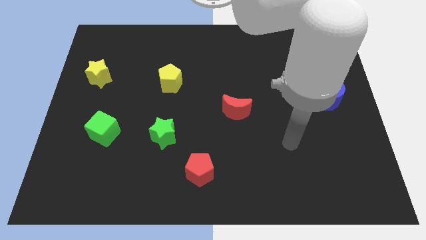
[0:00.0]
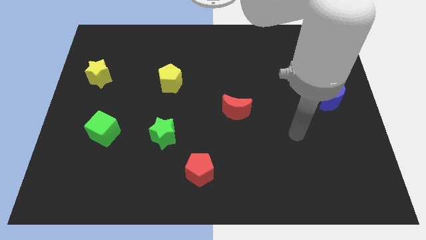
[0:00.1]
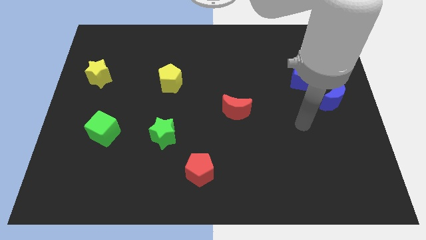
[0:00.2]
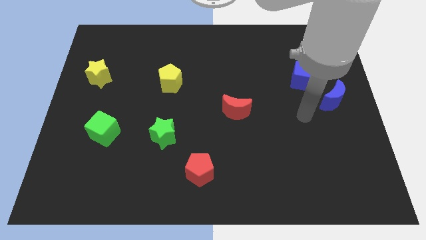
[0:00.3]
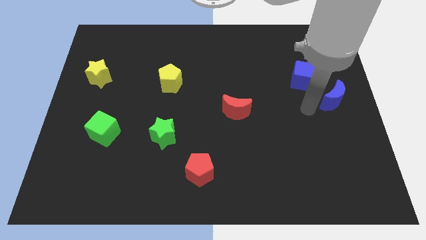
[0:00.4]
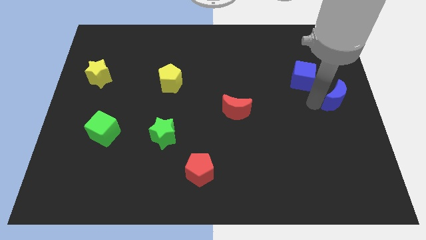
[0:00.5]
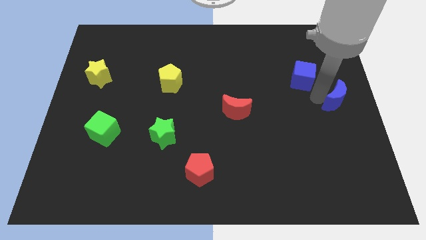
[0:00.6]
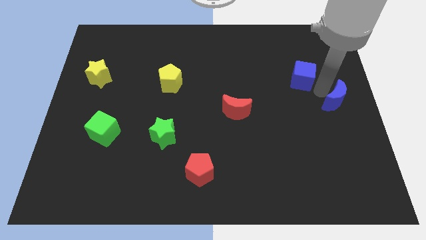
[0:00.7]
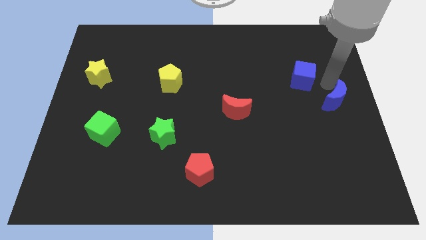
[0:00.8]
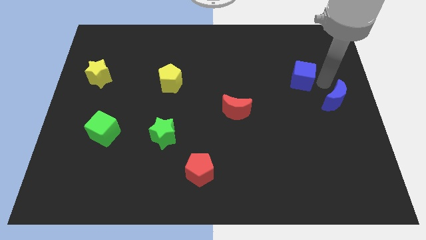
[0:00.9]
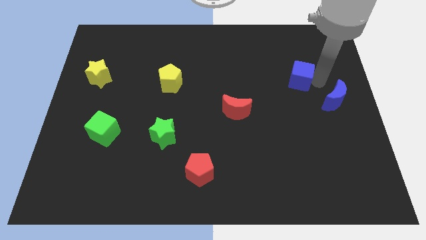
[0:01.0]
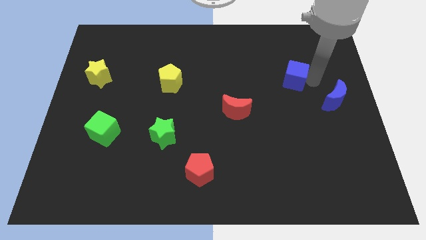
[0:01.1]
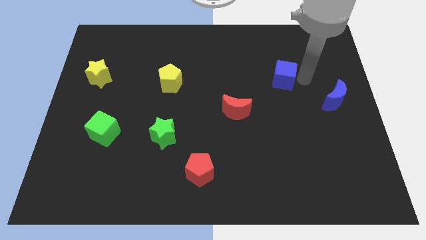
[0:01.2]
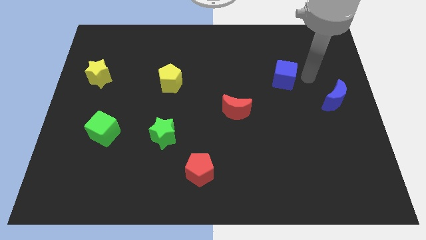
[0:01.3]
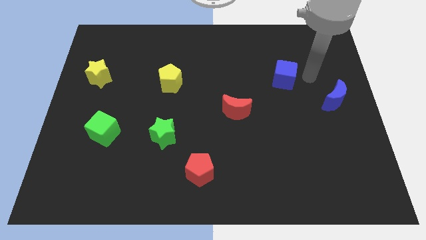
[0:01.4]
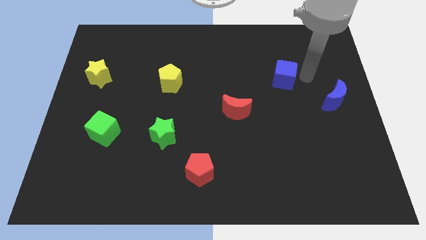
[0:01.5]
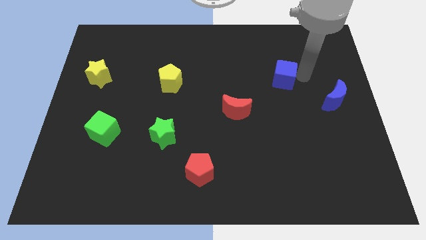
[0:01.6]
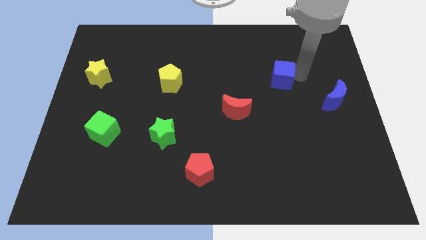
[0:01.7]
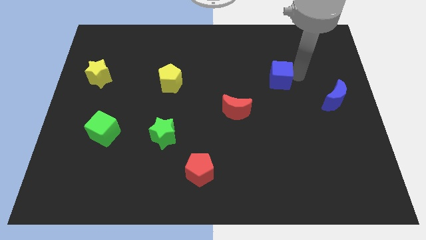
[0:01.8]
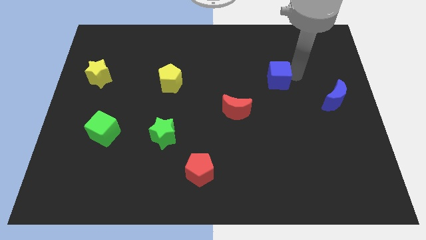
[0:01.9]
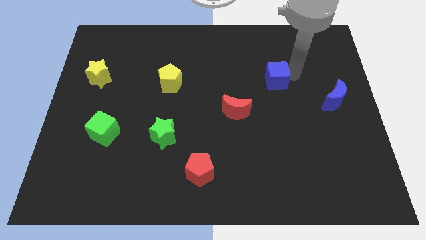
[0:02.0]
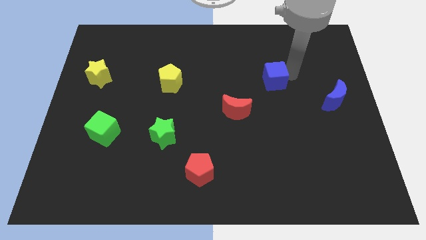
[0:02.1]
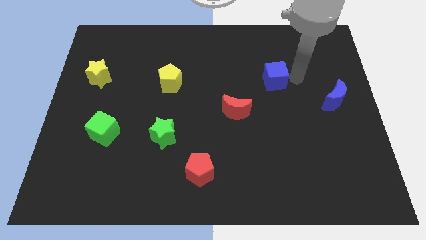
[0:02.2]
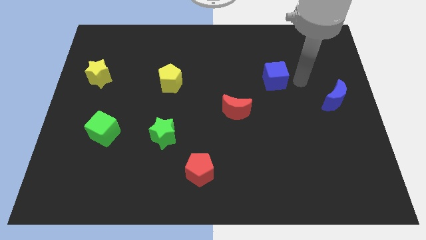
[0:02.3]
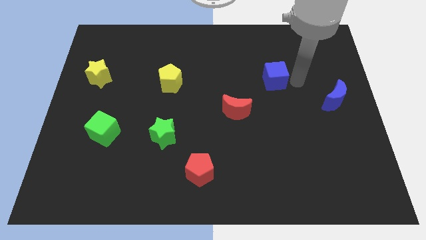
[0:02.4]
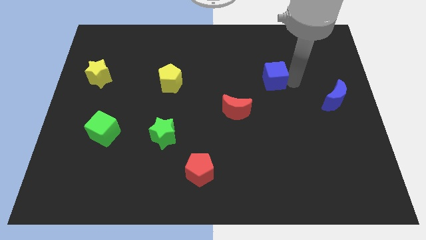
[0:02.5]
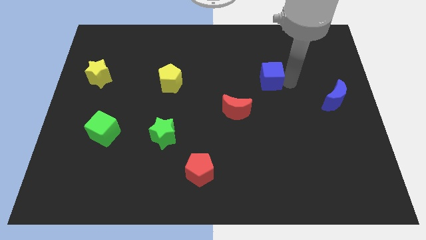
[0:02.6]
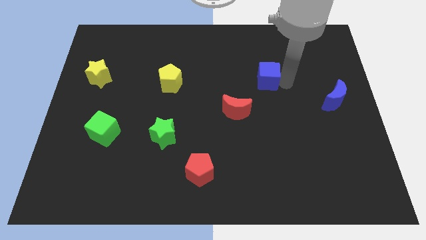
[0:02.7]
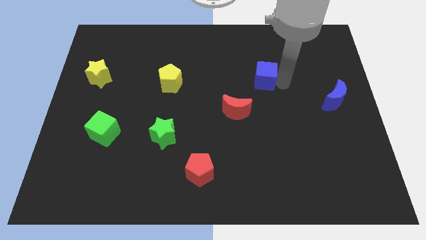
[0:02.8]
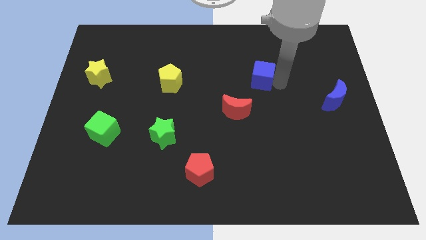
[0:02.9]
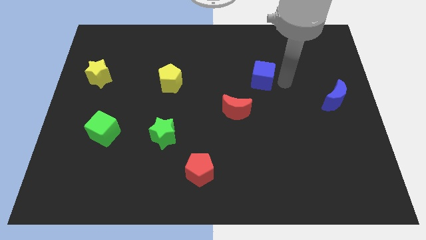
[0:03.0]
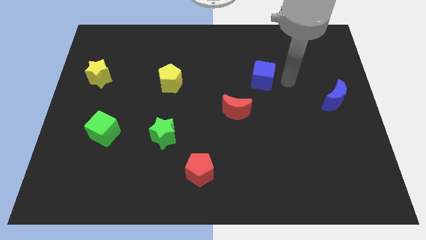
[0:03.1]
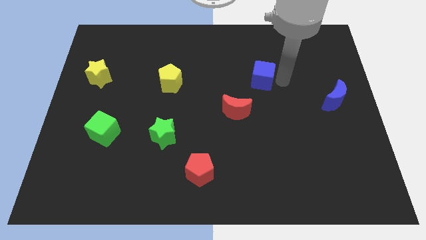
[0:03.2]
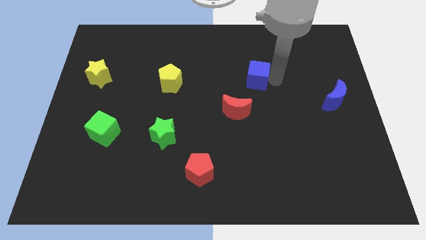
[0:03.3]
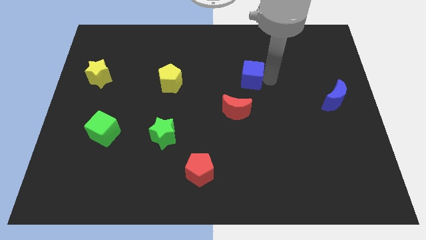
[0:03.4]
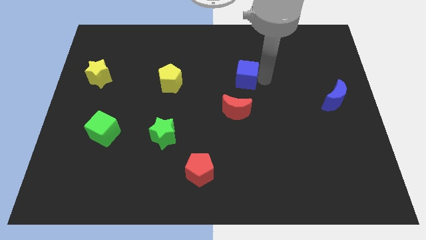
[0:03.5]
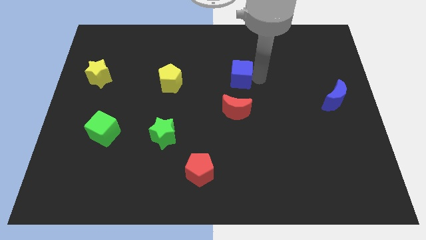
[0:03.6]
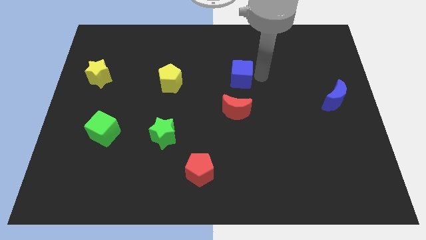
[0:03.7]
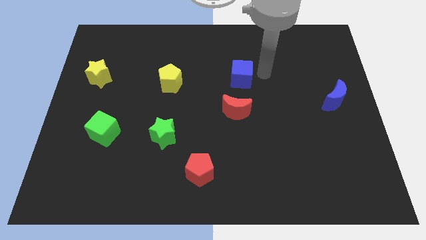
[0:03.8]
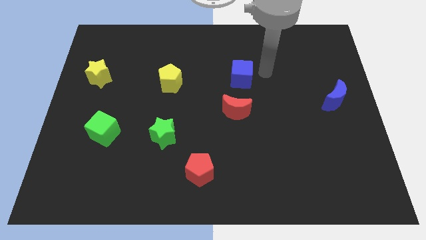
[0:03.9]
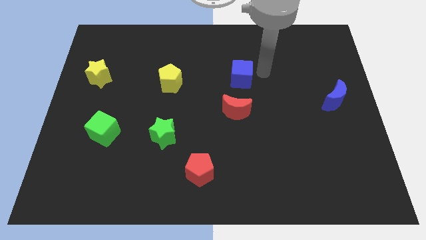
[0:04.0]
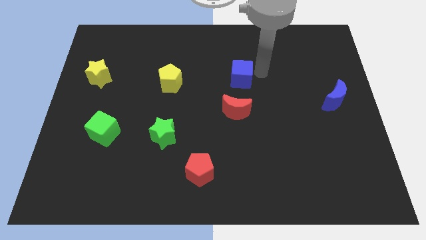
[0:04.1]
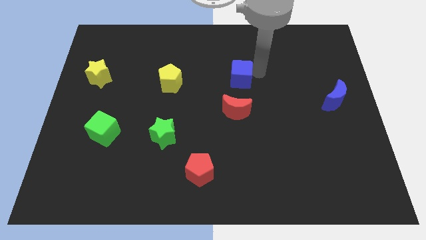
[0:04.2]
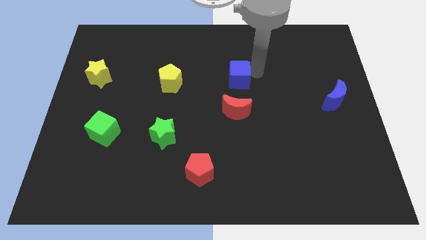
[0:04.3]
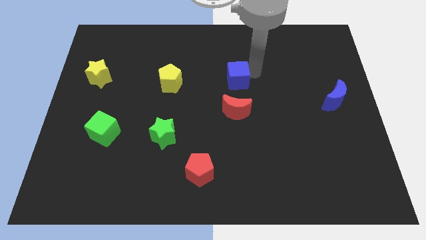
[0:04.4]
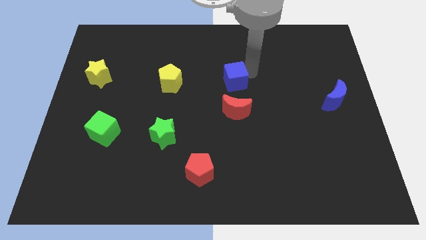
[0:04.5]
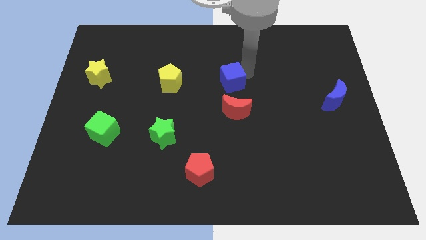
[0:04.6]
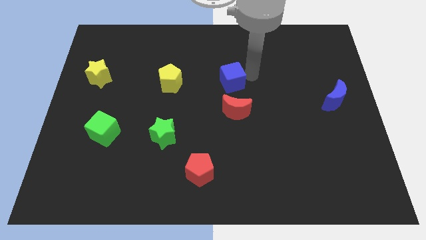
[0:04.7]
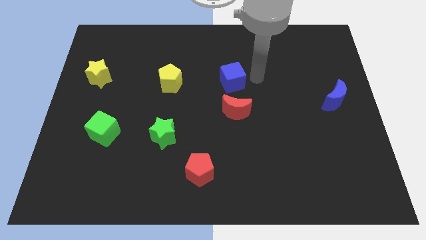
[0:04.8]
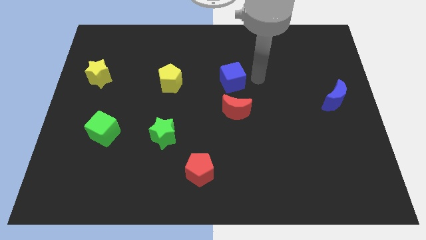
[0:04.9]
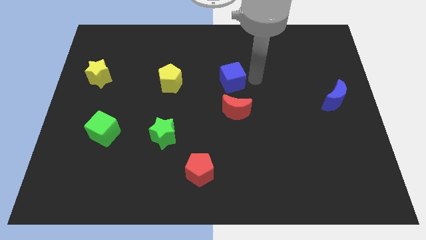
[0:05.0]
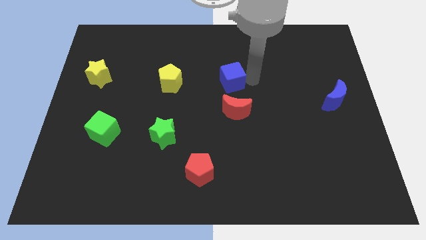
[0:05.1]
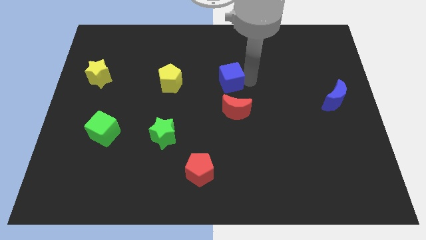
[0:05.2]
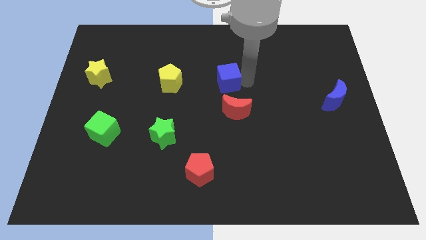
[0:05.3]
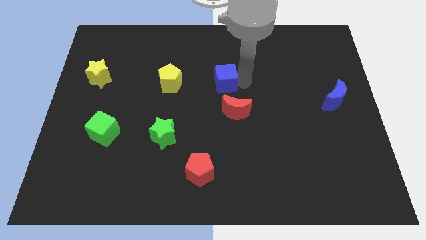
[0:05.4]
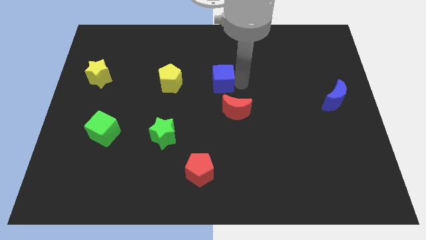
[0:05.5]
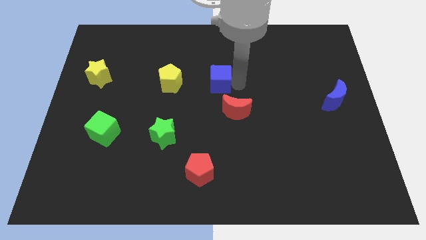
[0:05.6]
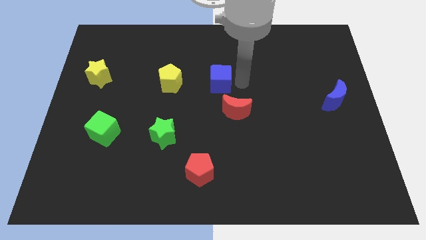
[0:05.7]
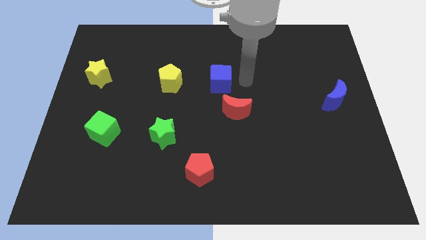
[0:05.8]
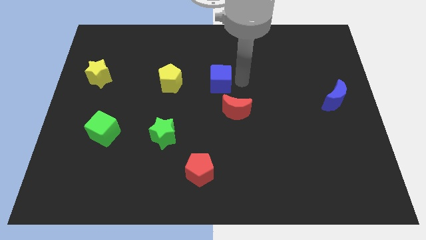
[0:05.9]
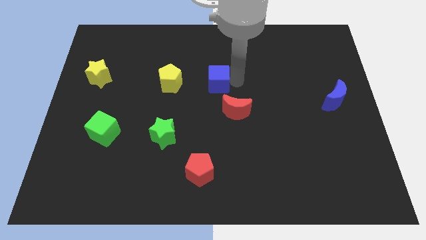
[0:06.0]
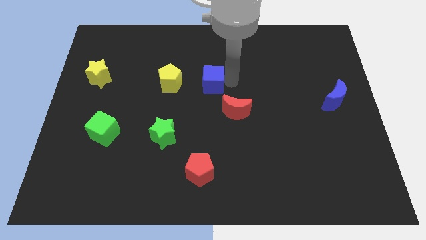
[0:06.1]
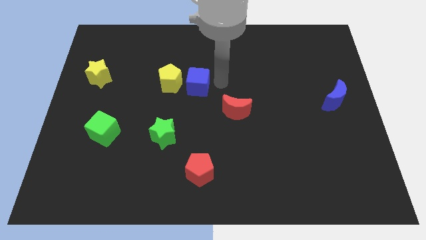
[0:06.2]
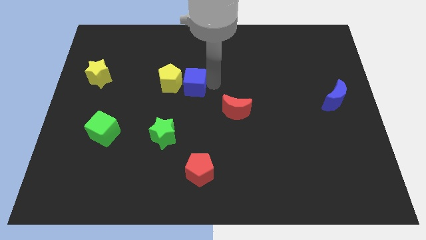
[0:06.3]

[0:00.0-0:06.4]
move the blue cube close to the yellow pentagon

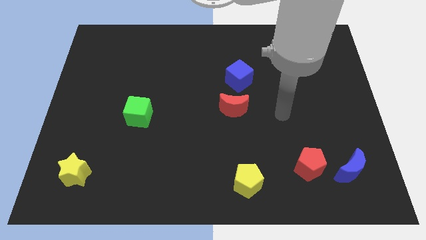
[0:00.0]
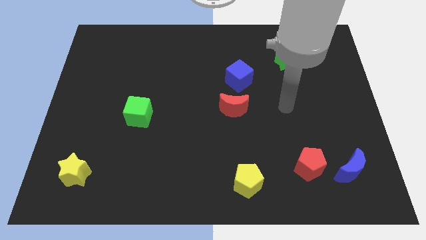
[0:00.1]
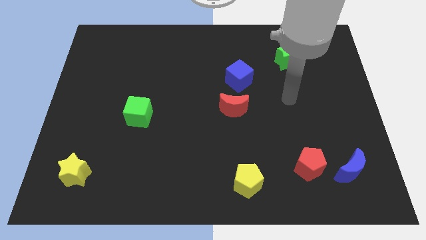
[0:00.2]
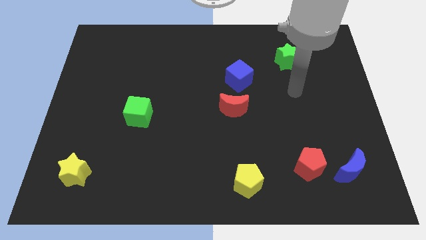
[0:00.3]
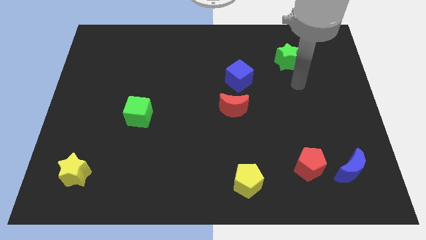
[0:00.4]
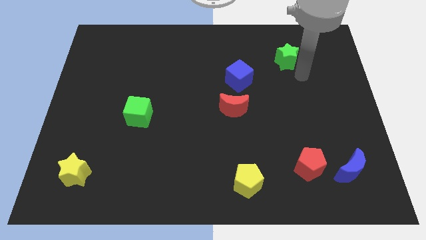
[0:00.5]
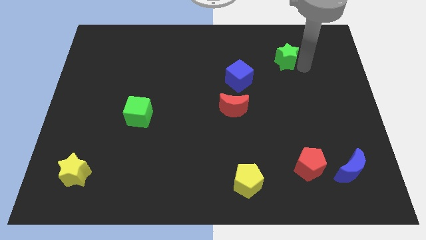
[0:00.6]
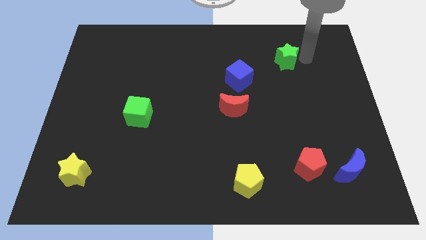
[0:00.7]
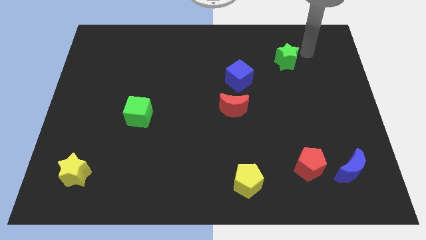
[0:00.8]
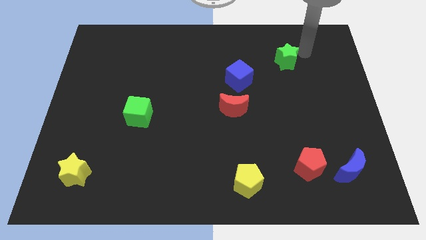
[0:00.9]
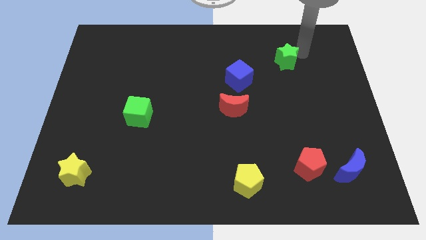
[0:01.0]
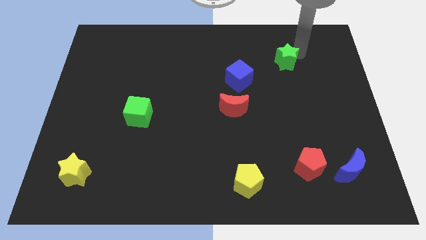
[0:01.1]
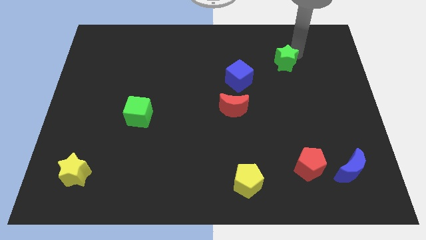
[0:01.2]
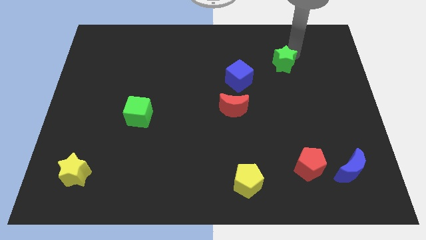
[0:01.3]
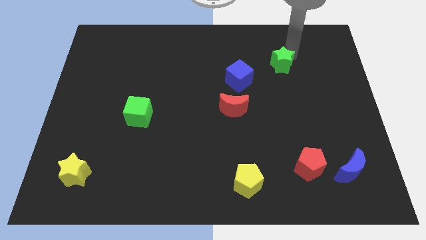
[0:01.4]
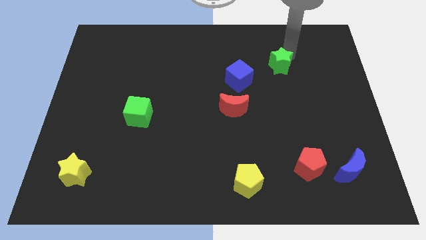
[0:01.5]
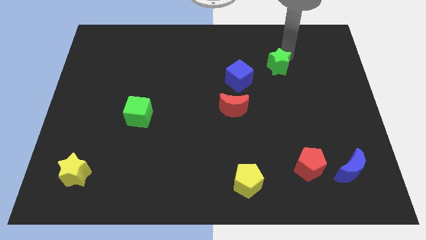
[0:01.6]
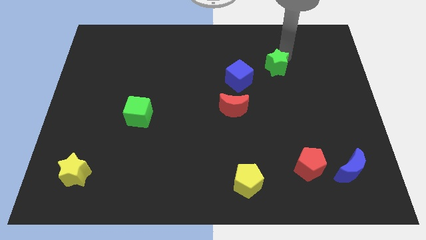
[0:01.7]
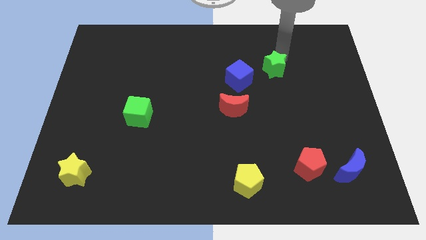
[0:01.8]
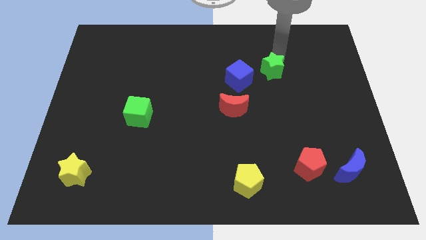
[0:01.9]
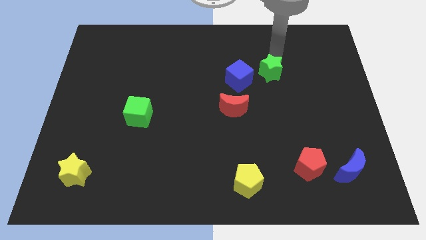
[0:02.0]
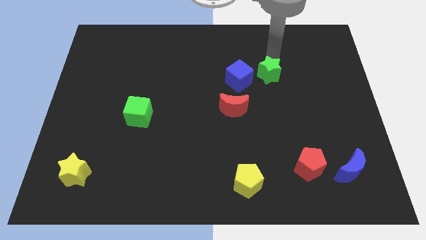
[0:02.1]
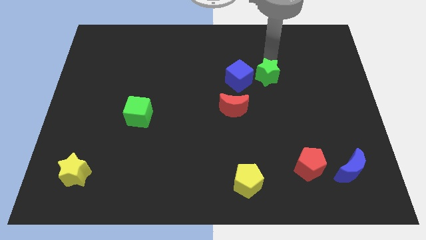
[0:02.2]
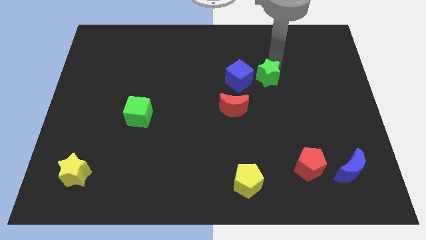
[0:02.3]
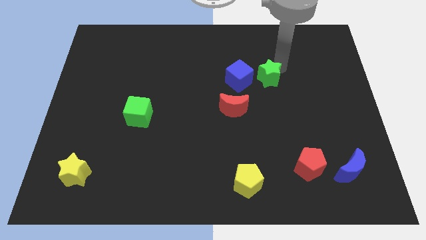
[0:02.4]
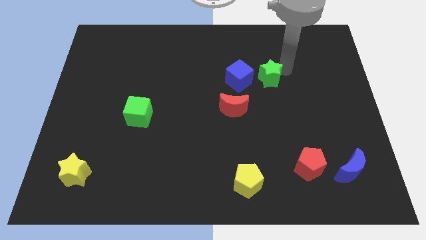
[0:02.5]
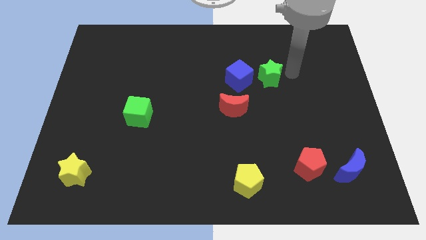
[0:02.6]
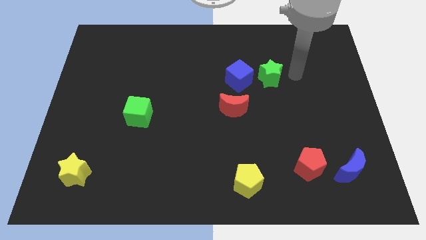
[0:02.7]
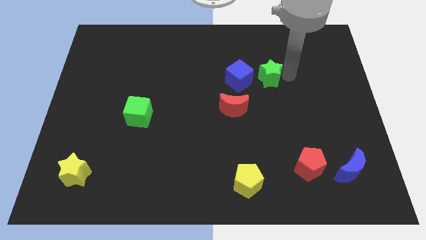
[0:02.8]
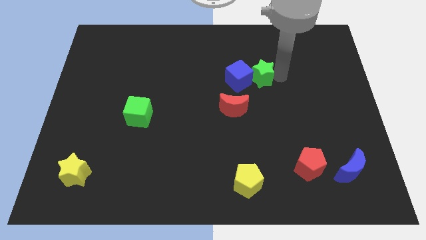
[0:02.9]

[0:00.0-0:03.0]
slide the green star towards the blue cube
